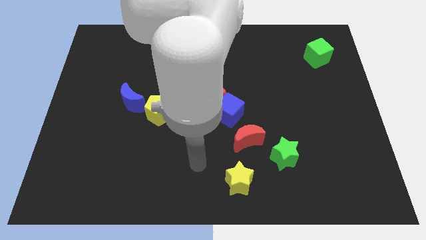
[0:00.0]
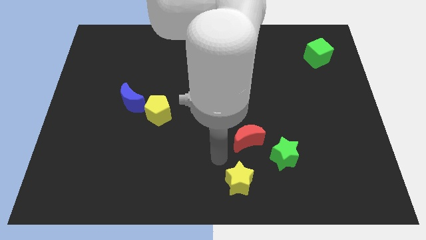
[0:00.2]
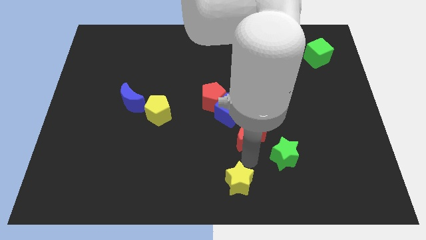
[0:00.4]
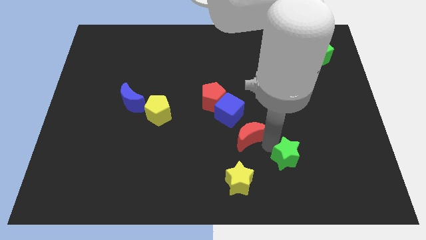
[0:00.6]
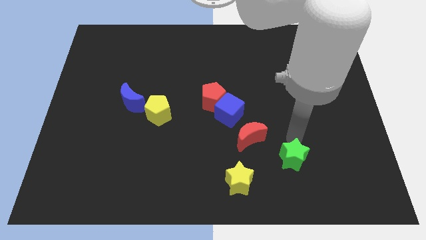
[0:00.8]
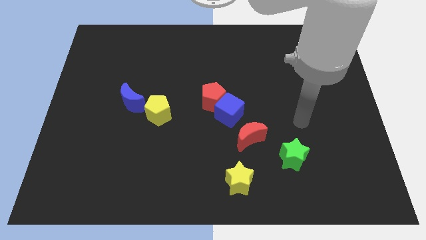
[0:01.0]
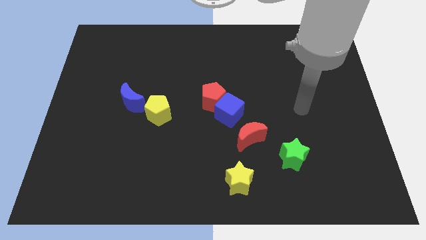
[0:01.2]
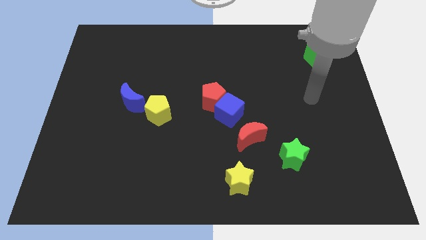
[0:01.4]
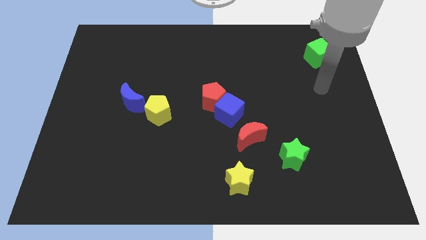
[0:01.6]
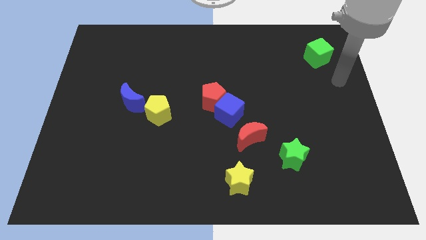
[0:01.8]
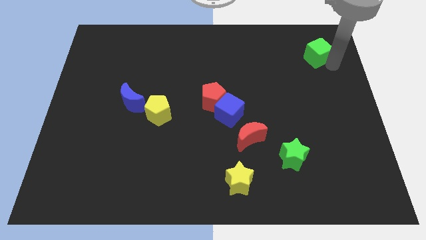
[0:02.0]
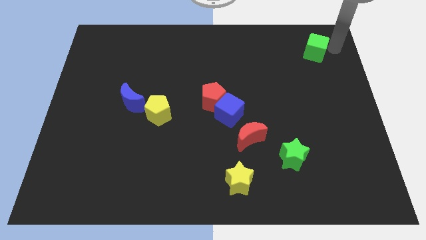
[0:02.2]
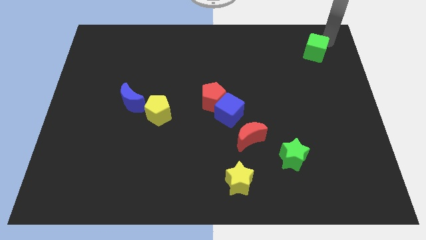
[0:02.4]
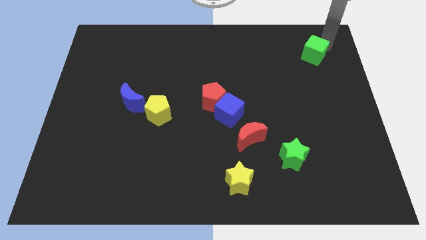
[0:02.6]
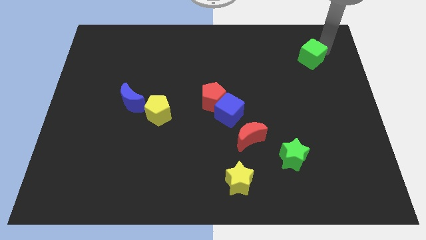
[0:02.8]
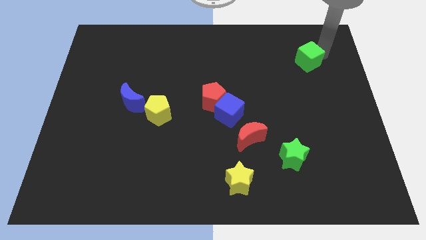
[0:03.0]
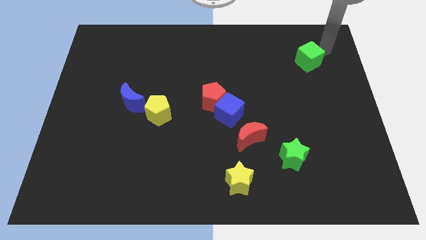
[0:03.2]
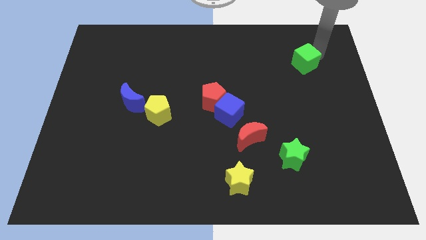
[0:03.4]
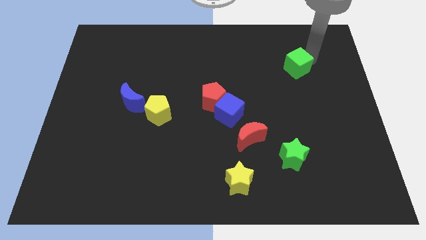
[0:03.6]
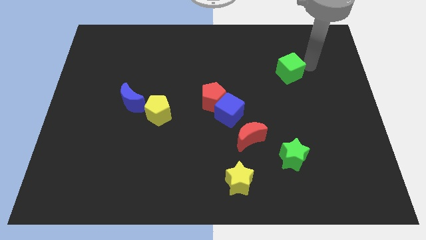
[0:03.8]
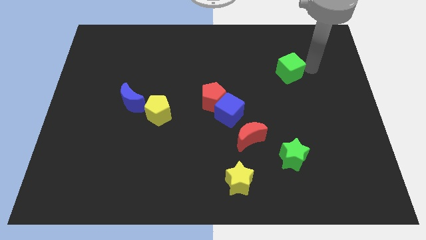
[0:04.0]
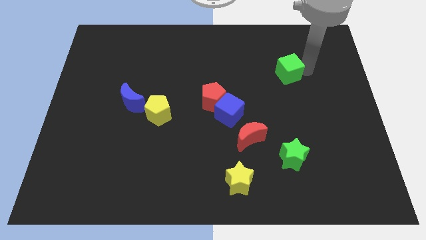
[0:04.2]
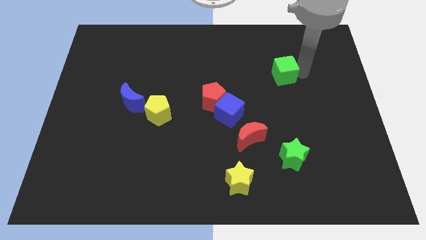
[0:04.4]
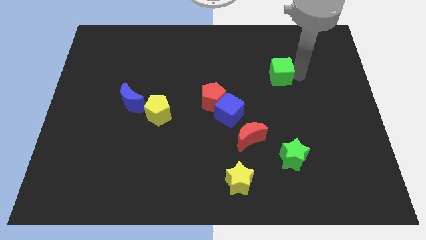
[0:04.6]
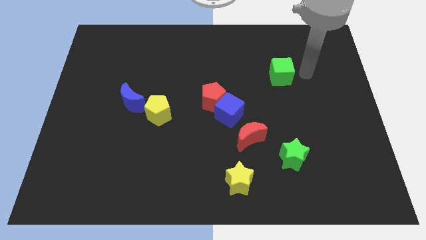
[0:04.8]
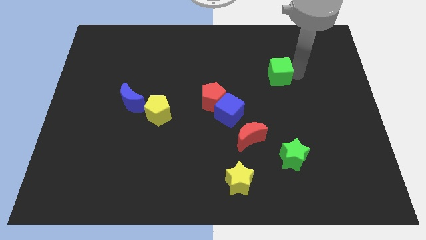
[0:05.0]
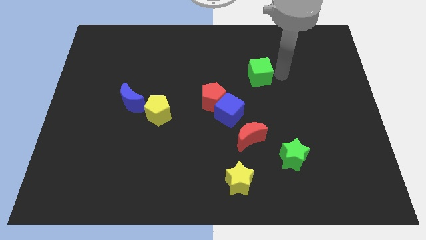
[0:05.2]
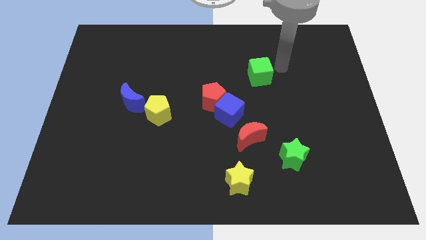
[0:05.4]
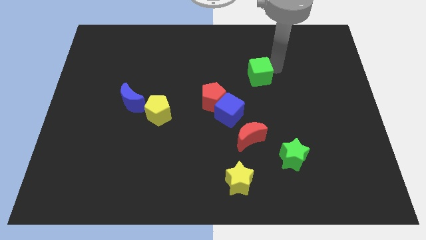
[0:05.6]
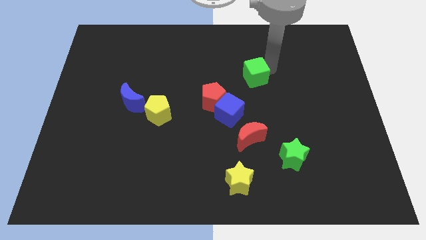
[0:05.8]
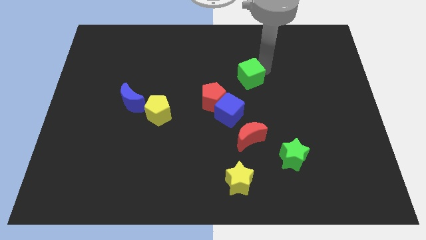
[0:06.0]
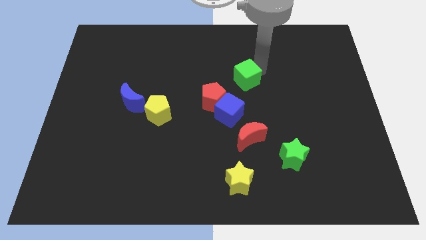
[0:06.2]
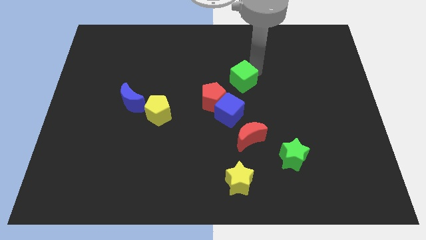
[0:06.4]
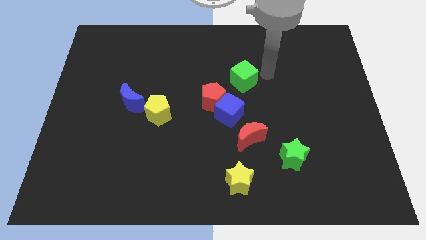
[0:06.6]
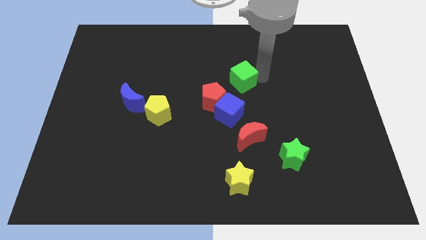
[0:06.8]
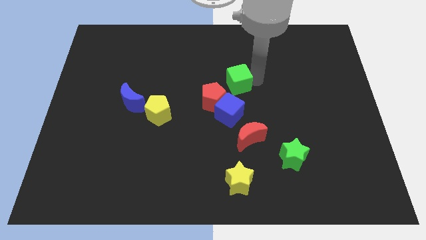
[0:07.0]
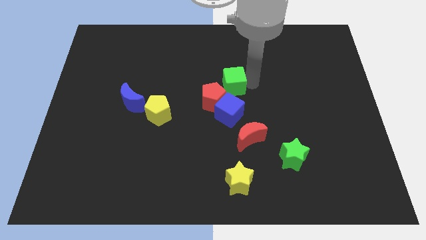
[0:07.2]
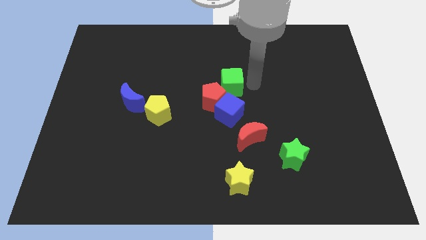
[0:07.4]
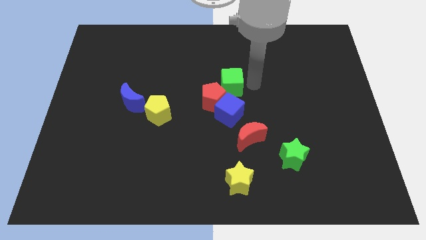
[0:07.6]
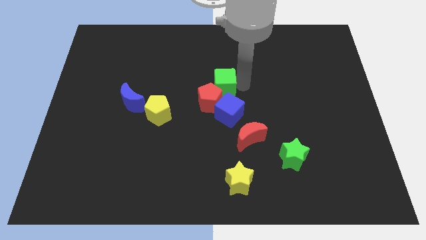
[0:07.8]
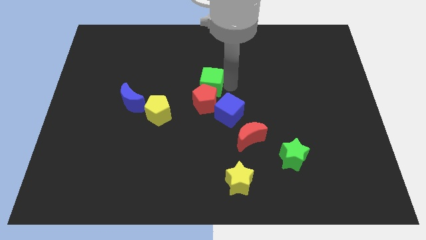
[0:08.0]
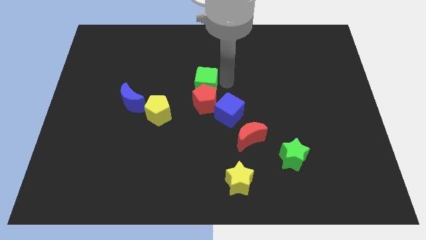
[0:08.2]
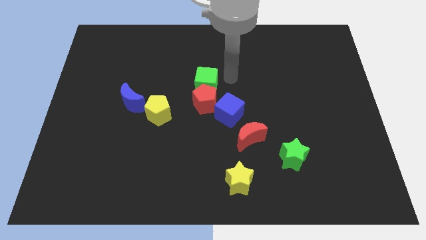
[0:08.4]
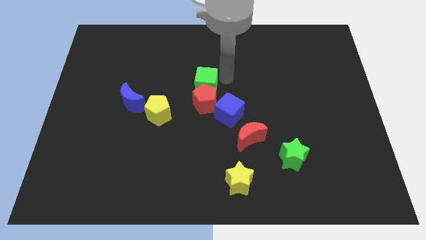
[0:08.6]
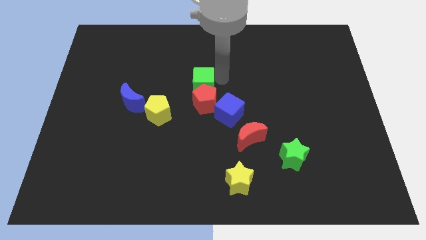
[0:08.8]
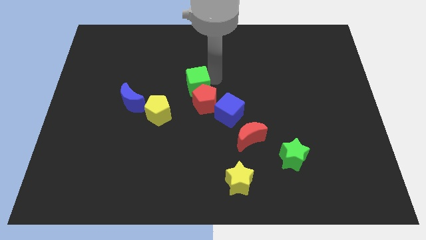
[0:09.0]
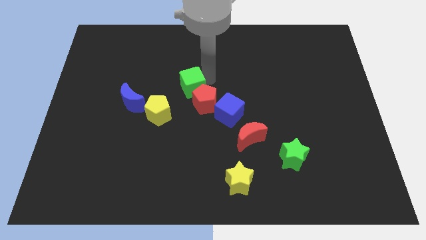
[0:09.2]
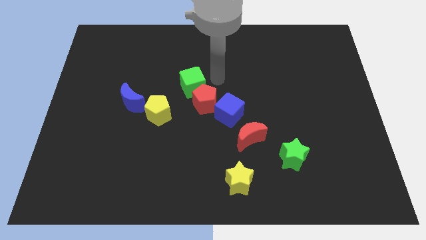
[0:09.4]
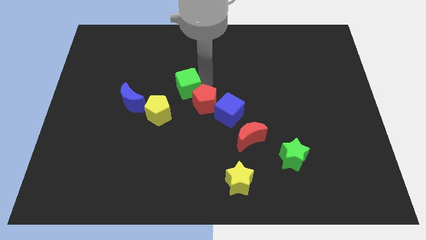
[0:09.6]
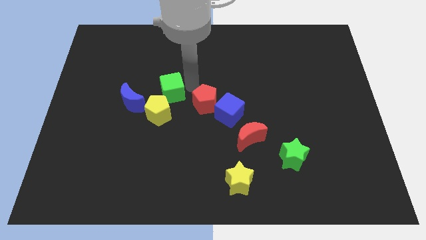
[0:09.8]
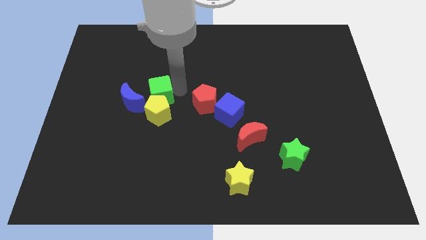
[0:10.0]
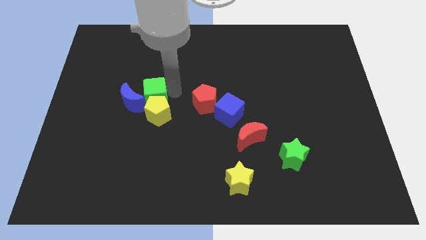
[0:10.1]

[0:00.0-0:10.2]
put the green cube towards the blue moon

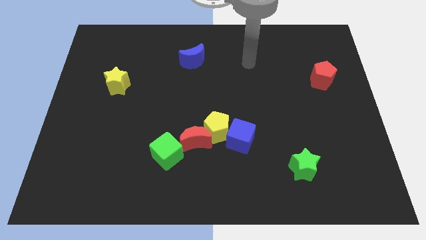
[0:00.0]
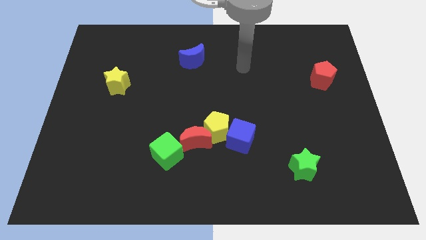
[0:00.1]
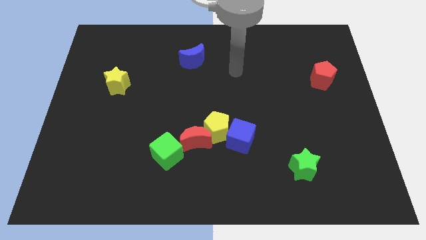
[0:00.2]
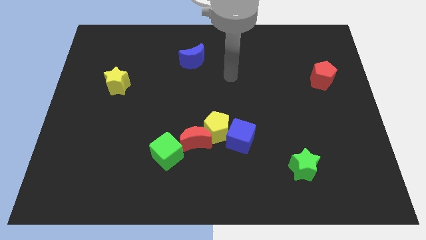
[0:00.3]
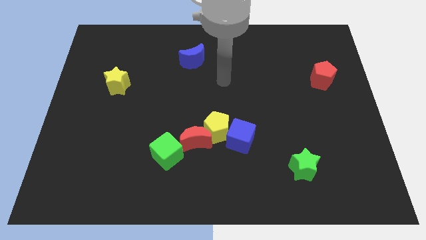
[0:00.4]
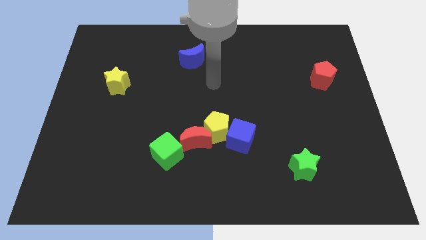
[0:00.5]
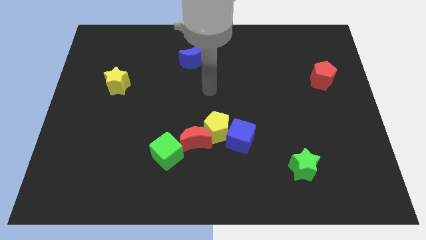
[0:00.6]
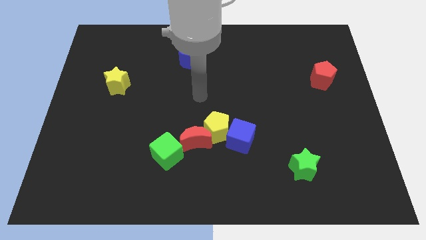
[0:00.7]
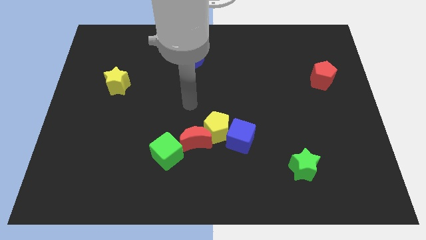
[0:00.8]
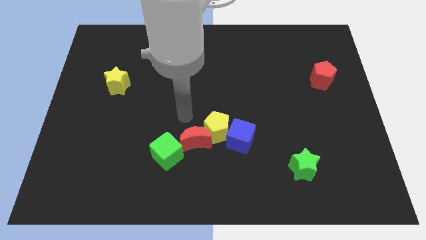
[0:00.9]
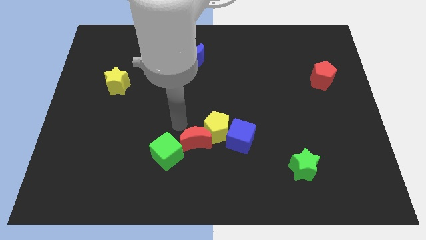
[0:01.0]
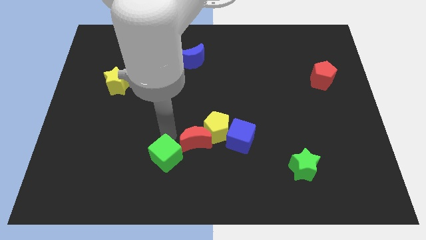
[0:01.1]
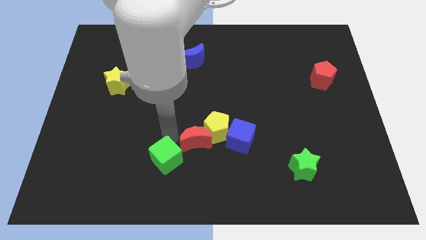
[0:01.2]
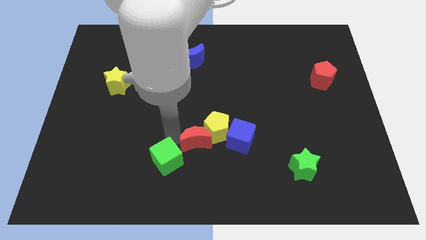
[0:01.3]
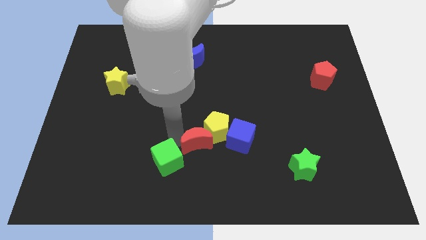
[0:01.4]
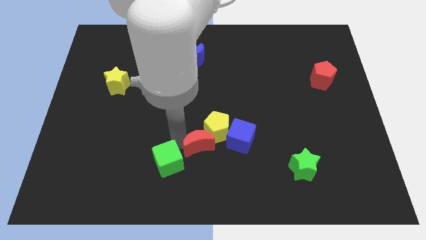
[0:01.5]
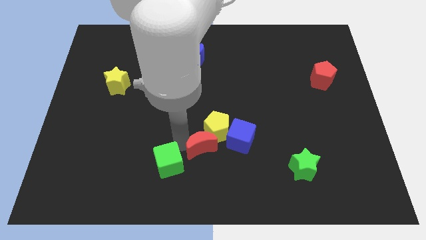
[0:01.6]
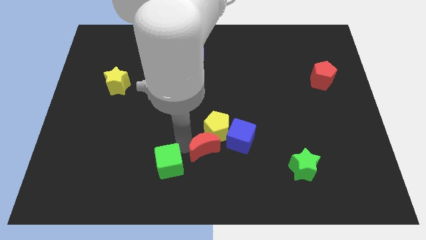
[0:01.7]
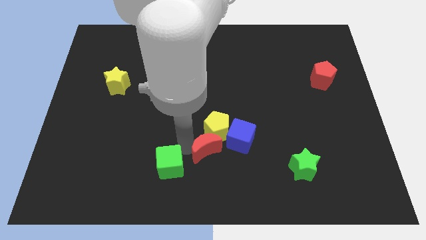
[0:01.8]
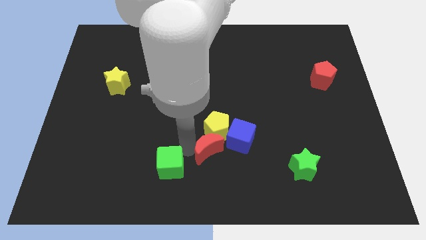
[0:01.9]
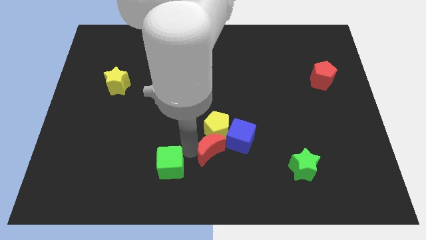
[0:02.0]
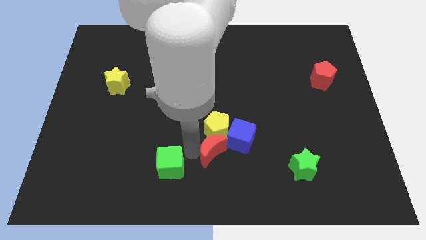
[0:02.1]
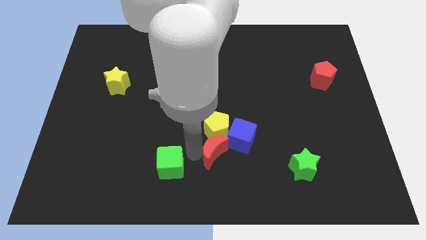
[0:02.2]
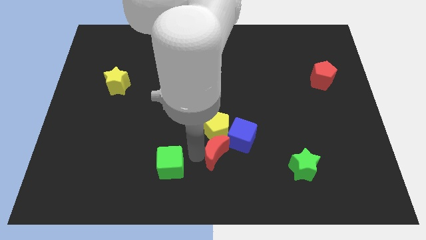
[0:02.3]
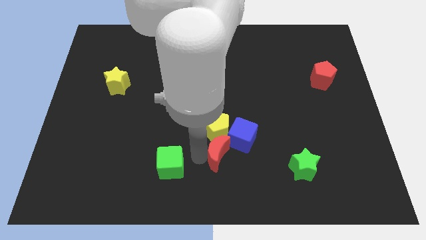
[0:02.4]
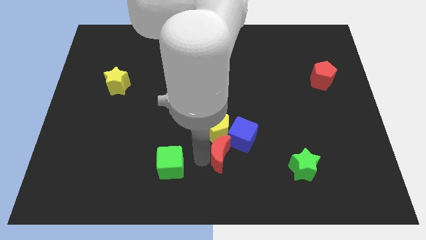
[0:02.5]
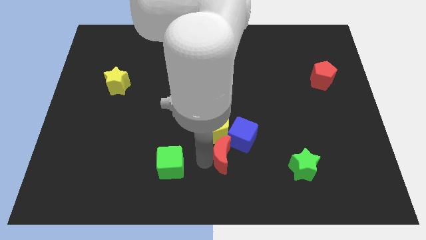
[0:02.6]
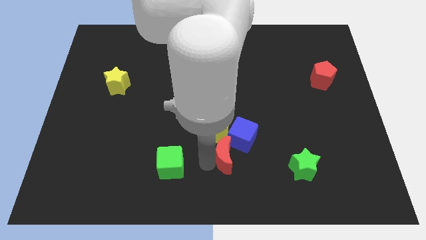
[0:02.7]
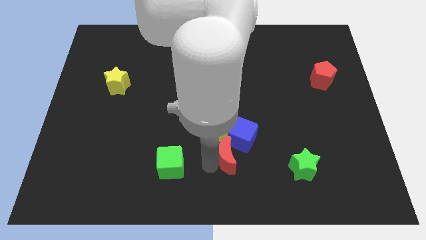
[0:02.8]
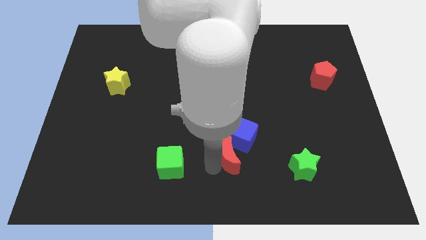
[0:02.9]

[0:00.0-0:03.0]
slide the red moon close to the blue cube
